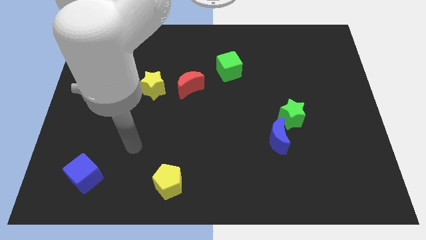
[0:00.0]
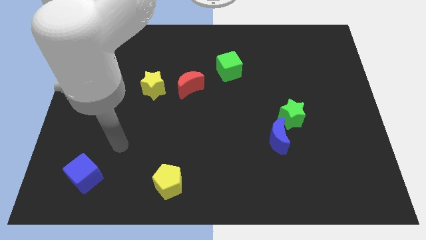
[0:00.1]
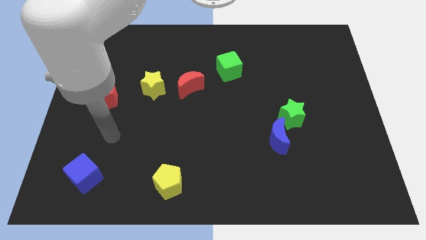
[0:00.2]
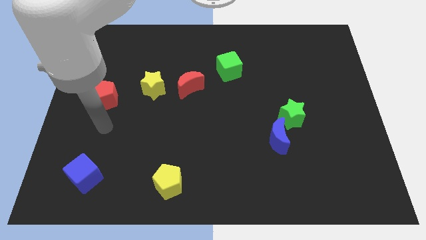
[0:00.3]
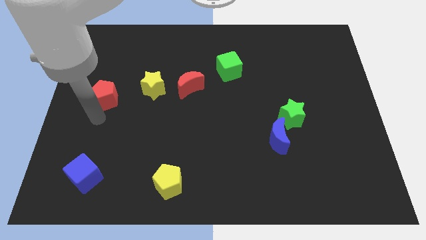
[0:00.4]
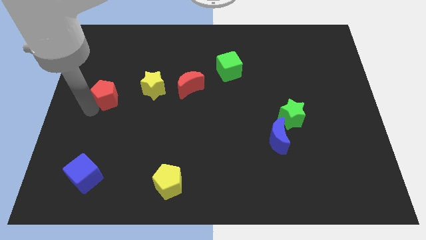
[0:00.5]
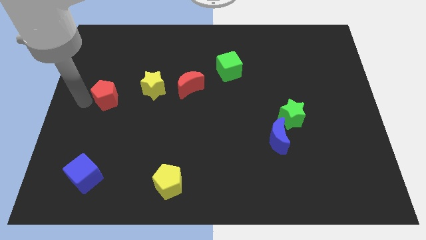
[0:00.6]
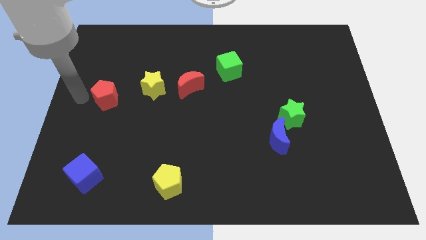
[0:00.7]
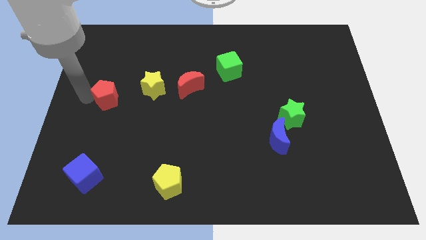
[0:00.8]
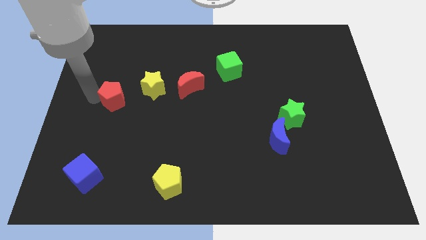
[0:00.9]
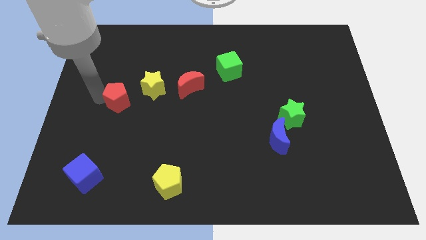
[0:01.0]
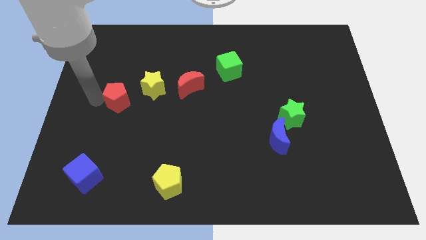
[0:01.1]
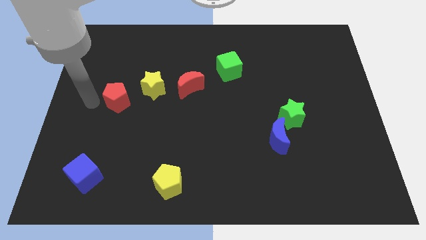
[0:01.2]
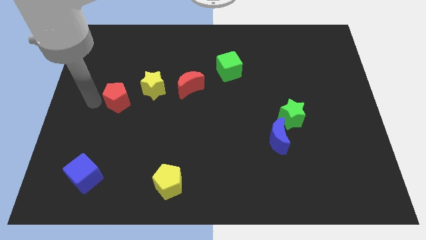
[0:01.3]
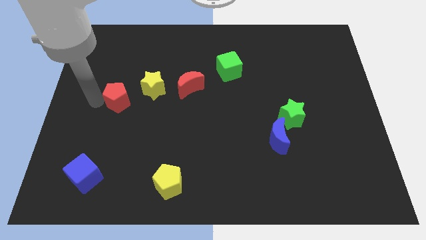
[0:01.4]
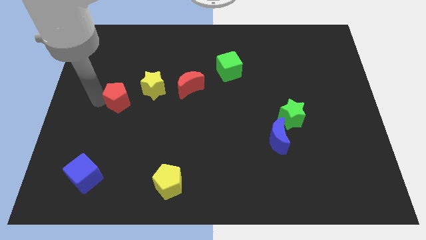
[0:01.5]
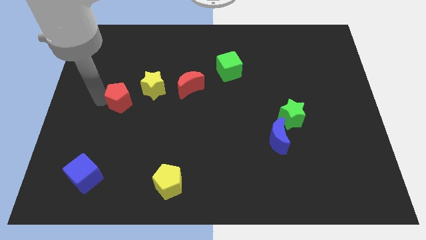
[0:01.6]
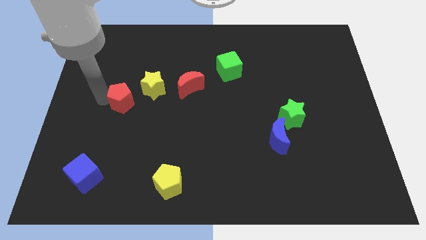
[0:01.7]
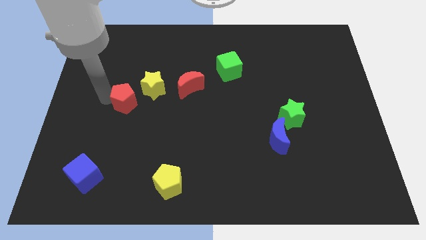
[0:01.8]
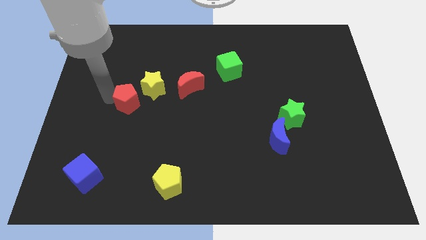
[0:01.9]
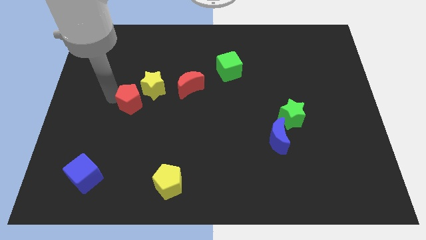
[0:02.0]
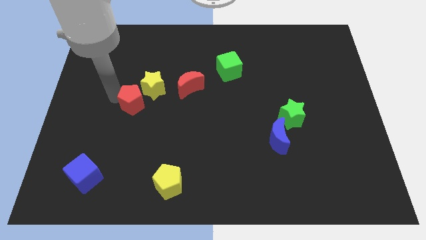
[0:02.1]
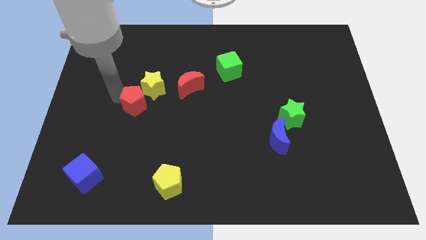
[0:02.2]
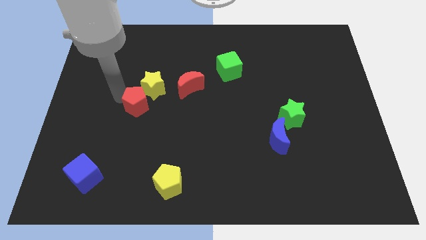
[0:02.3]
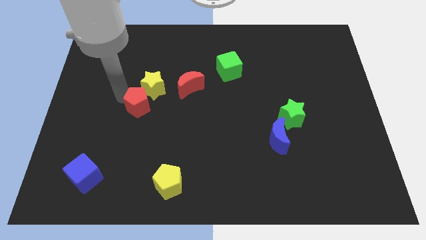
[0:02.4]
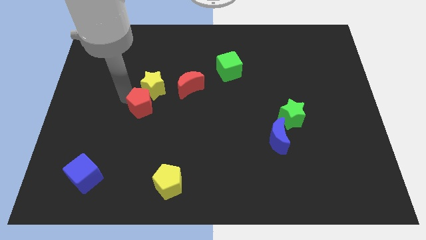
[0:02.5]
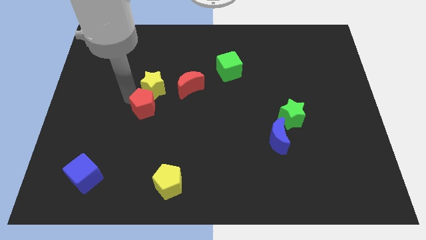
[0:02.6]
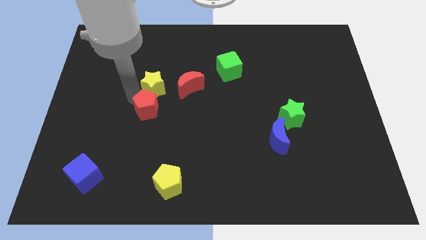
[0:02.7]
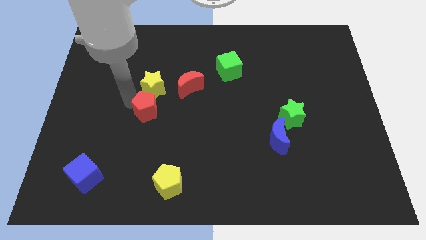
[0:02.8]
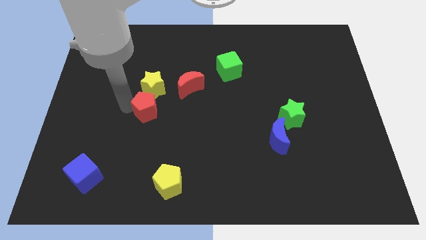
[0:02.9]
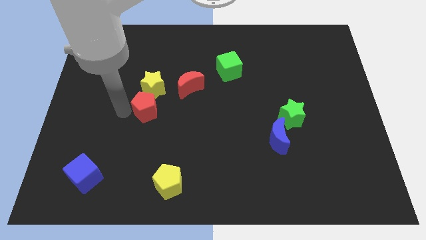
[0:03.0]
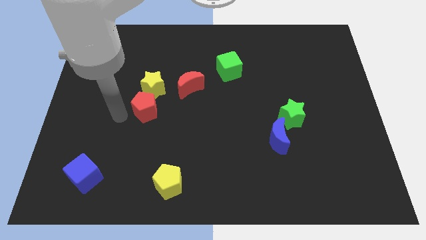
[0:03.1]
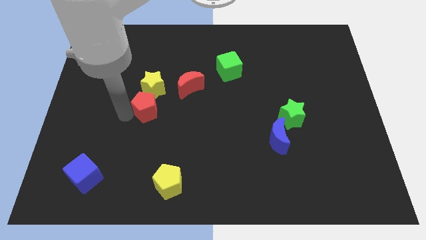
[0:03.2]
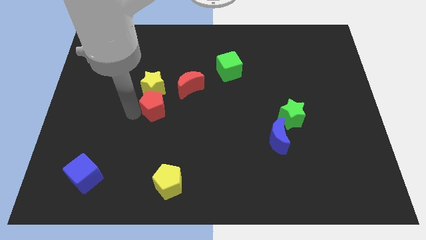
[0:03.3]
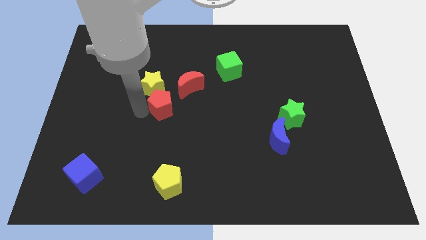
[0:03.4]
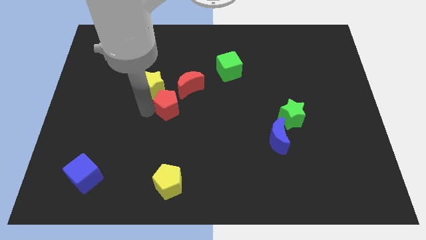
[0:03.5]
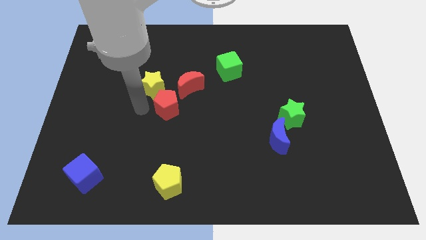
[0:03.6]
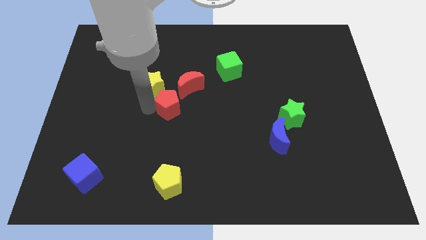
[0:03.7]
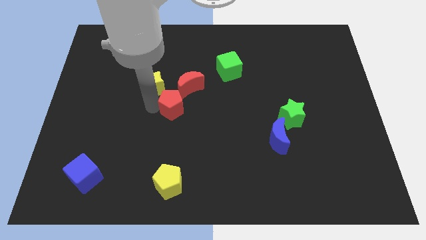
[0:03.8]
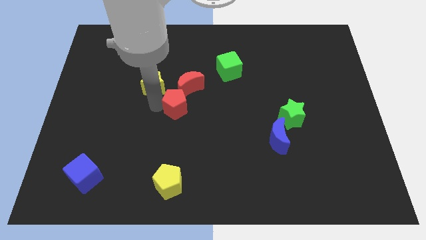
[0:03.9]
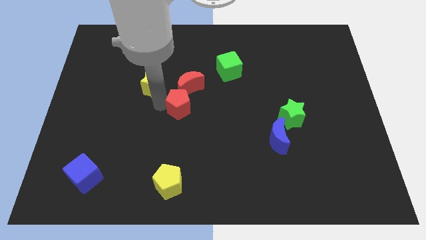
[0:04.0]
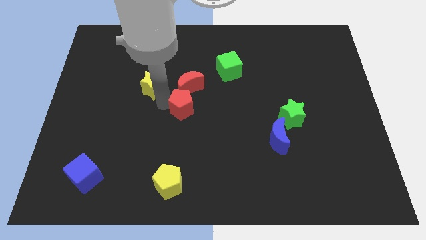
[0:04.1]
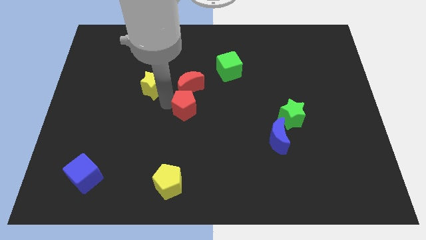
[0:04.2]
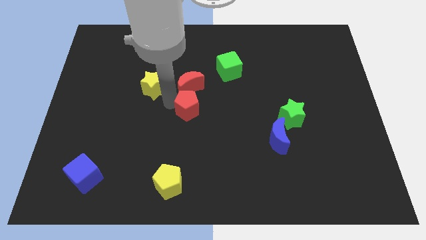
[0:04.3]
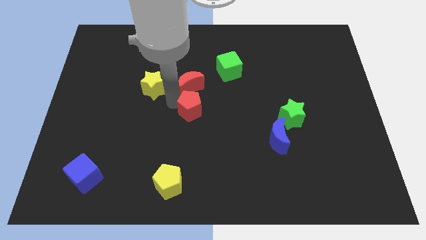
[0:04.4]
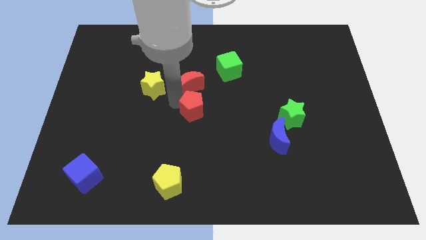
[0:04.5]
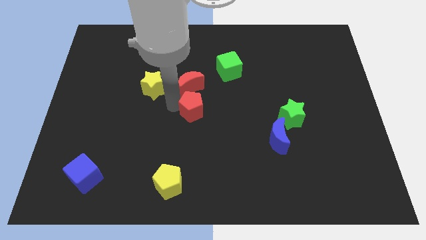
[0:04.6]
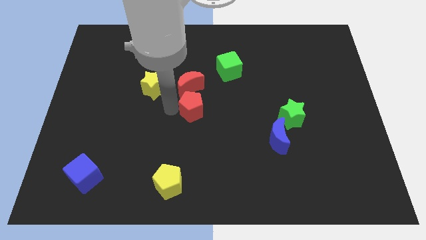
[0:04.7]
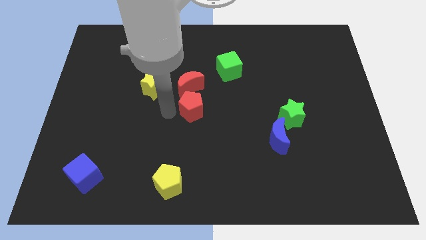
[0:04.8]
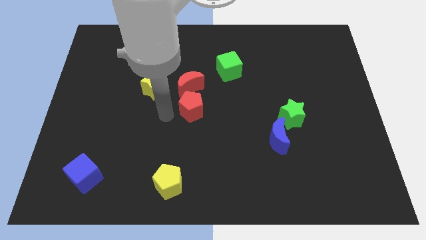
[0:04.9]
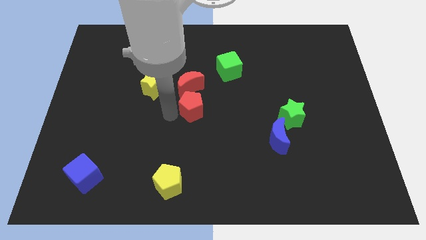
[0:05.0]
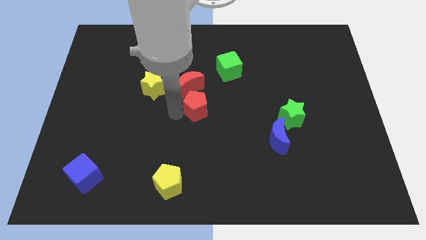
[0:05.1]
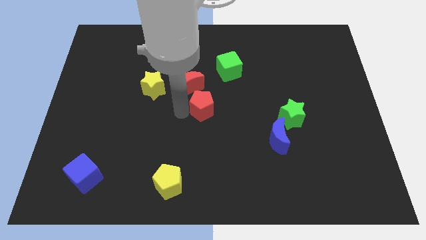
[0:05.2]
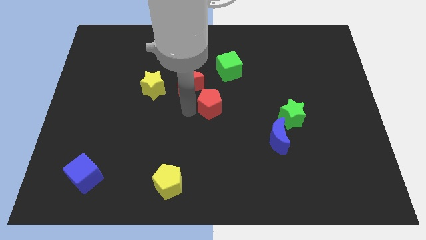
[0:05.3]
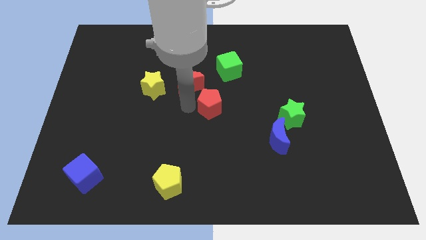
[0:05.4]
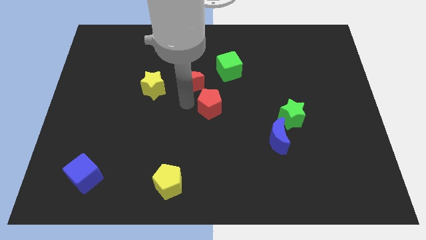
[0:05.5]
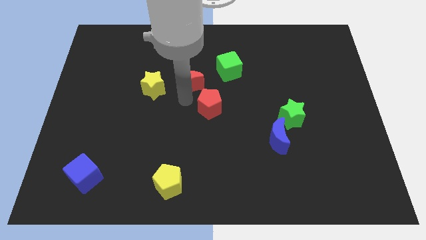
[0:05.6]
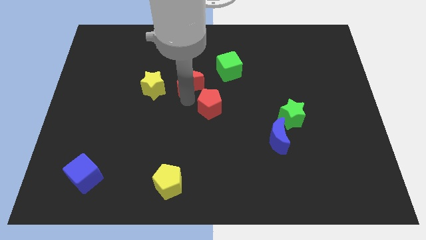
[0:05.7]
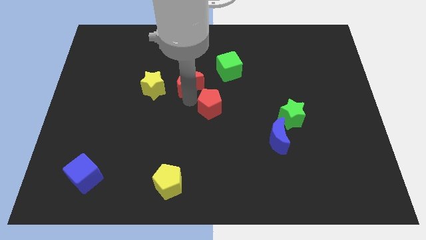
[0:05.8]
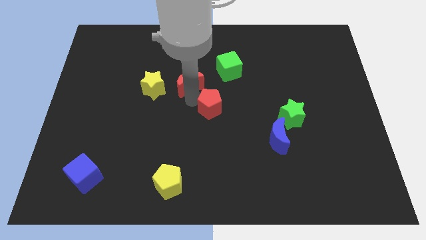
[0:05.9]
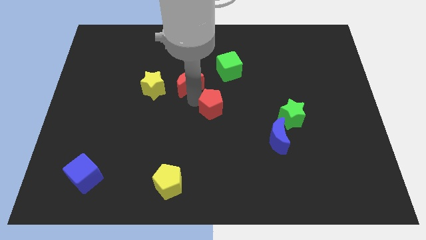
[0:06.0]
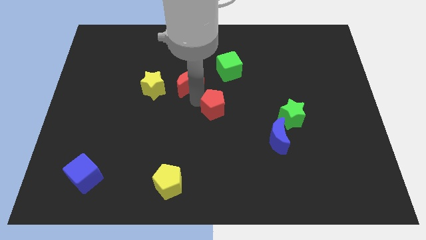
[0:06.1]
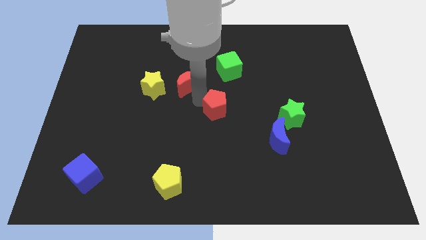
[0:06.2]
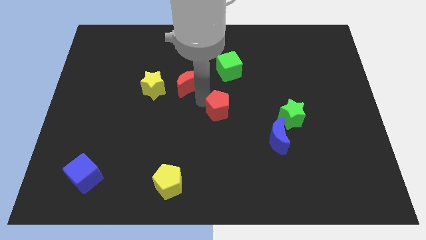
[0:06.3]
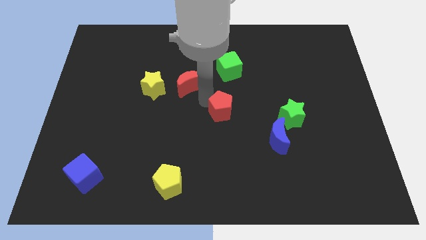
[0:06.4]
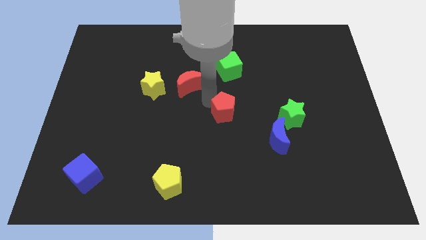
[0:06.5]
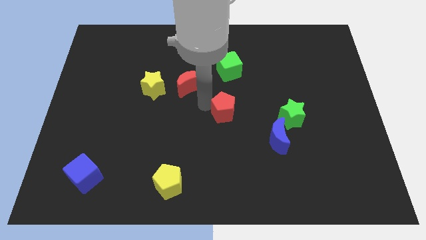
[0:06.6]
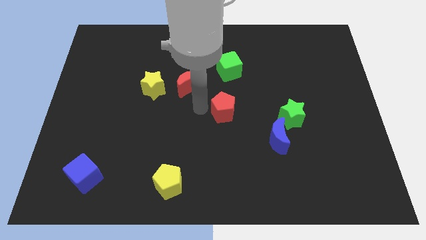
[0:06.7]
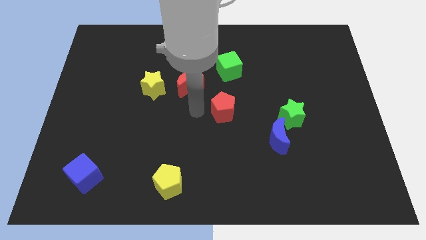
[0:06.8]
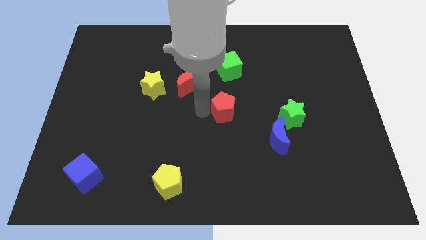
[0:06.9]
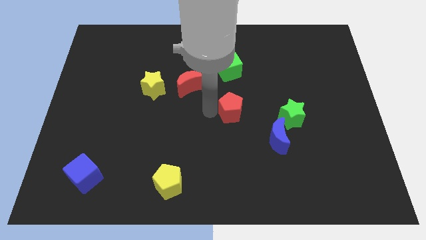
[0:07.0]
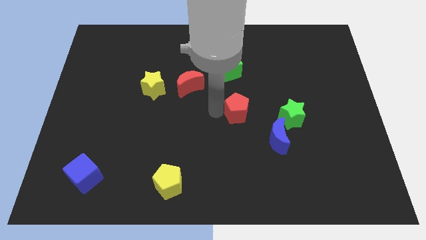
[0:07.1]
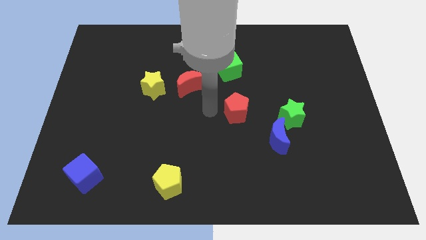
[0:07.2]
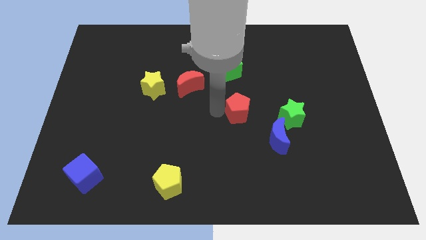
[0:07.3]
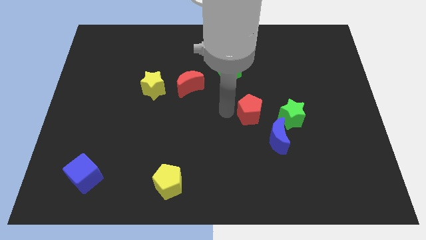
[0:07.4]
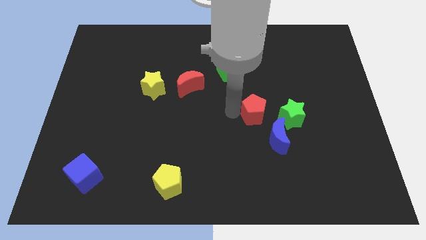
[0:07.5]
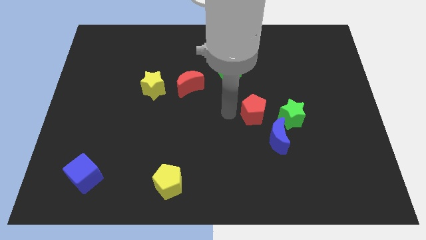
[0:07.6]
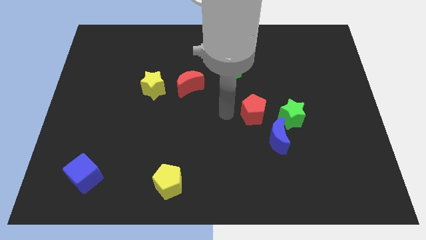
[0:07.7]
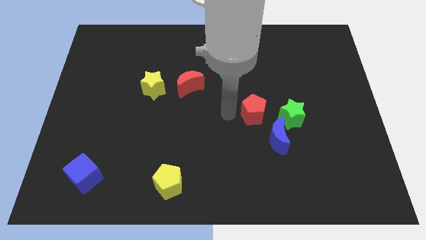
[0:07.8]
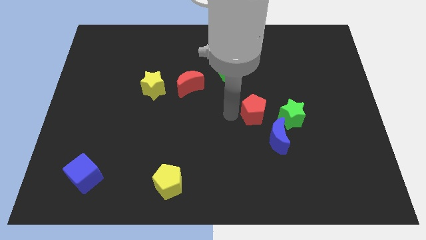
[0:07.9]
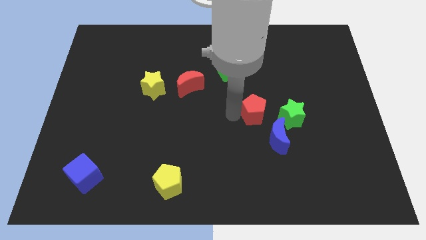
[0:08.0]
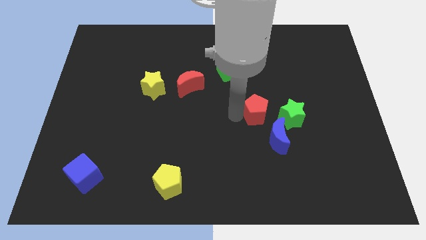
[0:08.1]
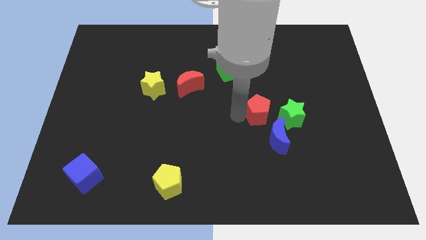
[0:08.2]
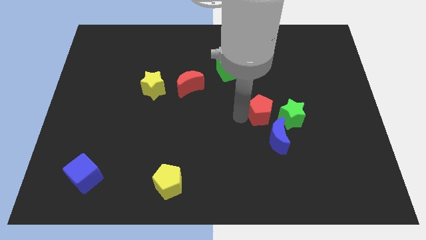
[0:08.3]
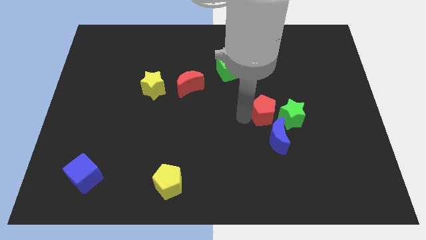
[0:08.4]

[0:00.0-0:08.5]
slide the red pentagon next to the green star
